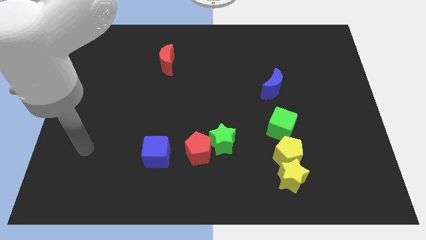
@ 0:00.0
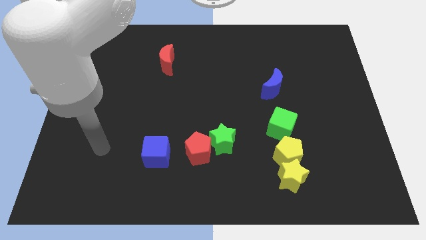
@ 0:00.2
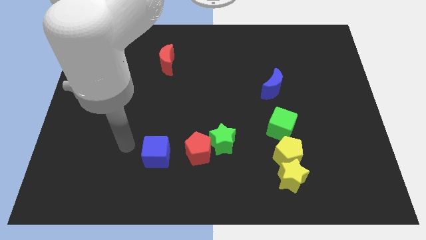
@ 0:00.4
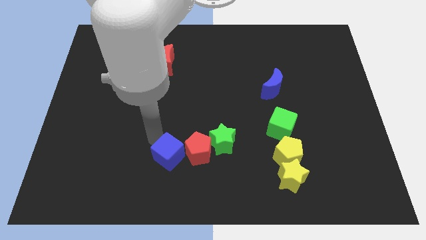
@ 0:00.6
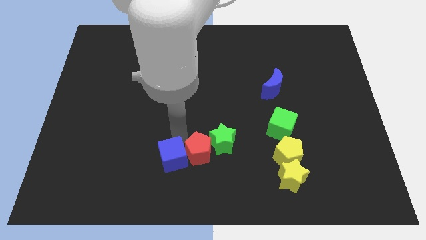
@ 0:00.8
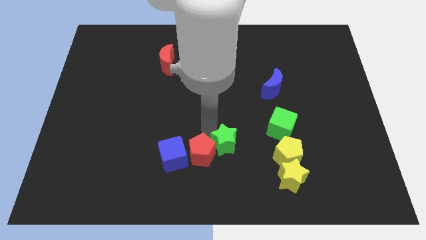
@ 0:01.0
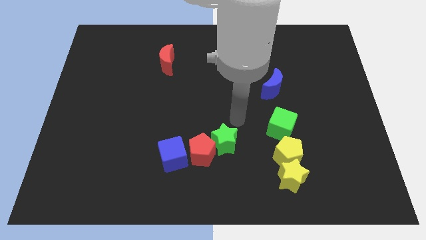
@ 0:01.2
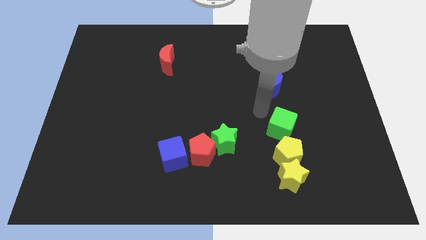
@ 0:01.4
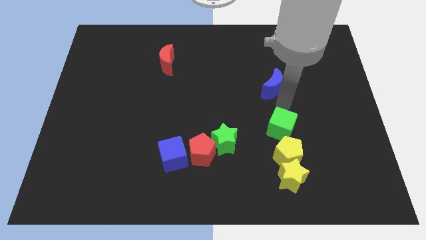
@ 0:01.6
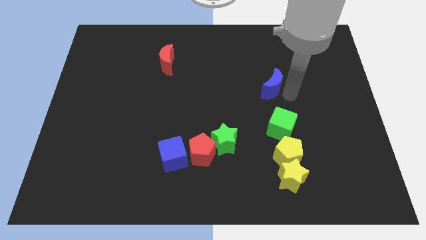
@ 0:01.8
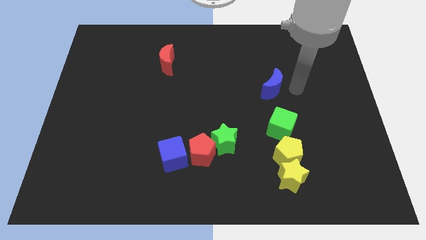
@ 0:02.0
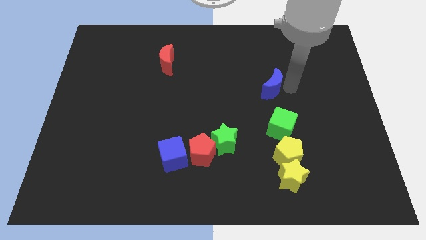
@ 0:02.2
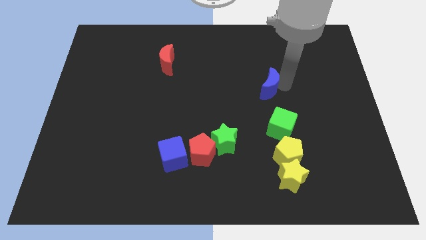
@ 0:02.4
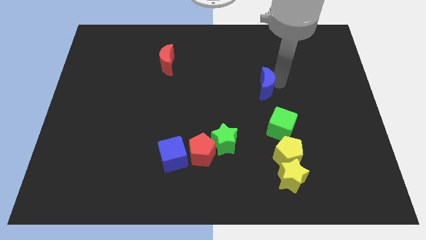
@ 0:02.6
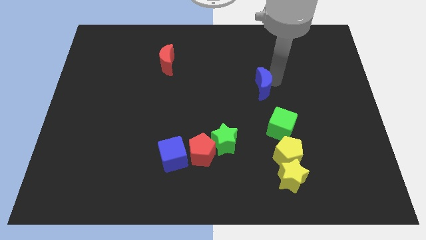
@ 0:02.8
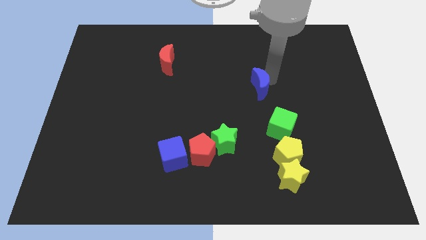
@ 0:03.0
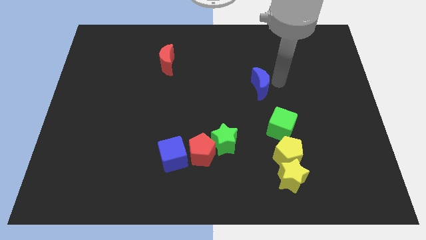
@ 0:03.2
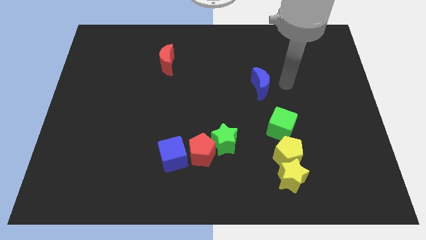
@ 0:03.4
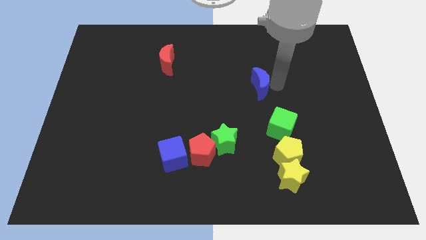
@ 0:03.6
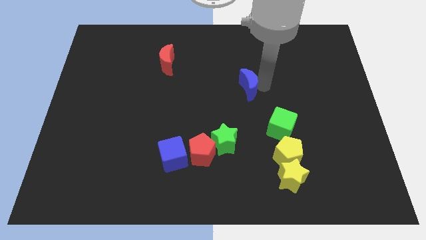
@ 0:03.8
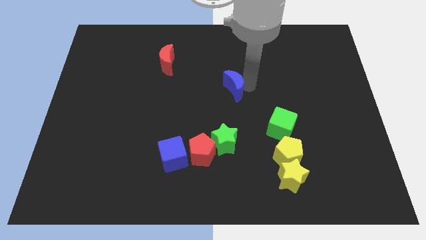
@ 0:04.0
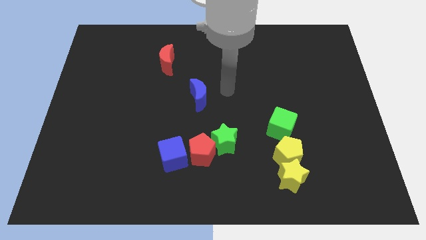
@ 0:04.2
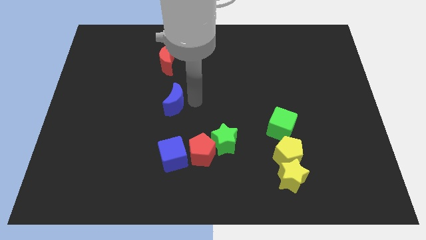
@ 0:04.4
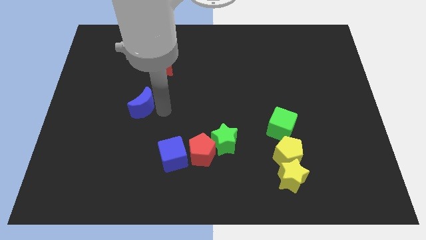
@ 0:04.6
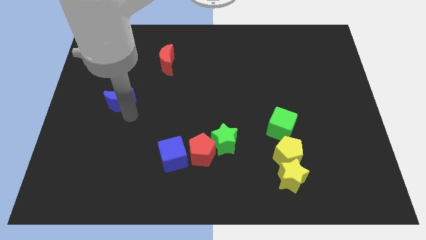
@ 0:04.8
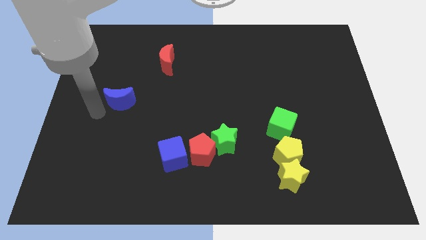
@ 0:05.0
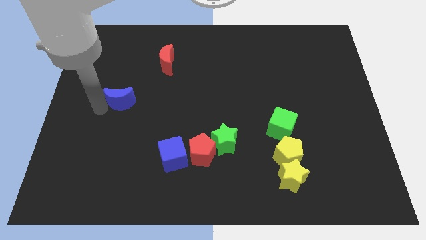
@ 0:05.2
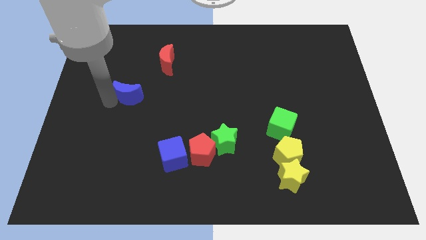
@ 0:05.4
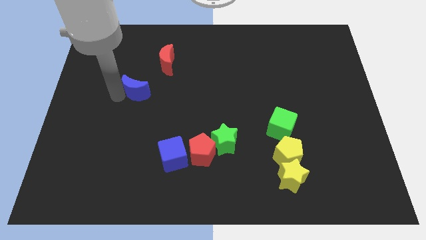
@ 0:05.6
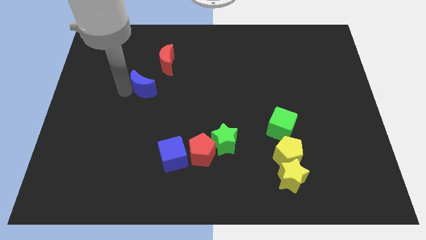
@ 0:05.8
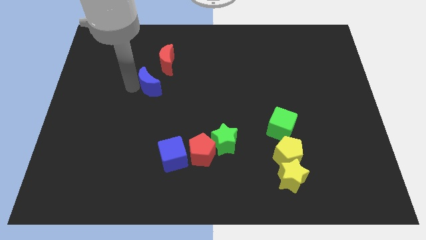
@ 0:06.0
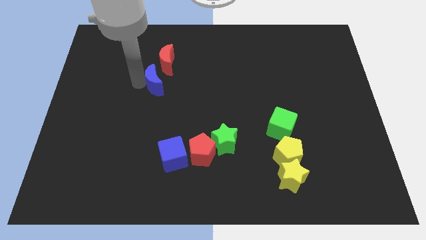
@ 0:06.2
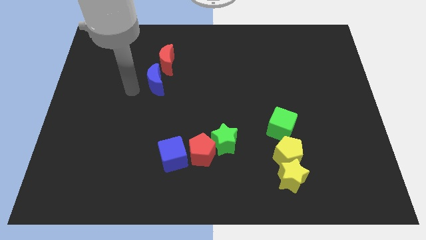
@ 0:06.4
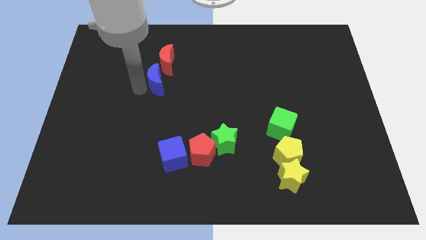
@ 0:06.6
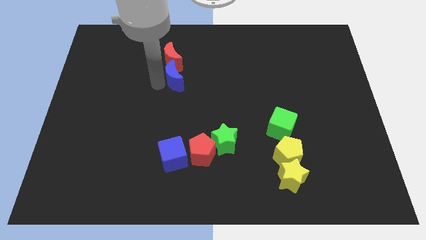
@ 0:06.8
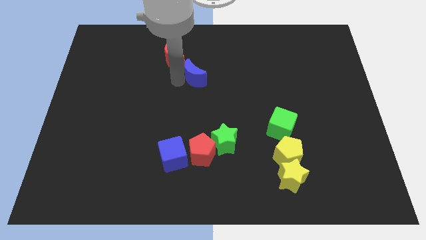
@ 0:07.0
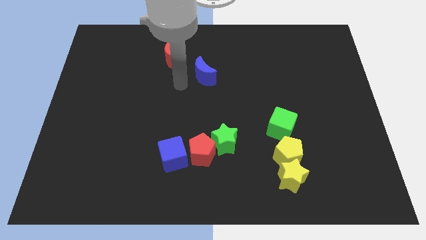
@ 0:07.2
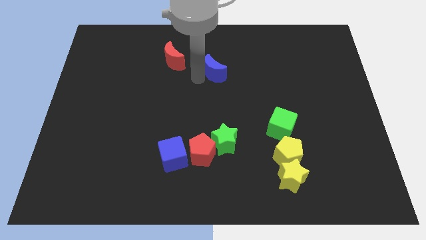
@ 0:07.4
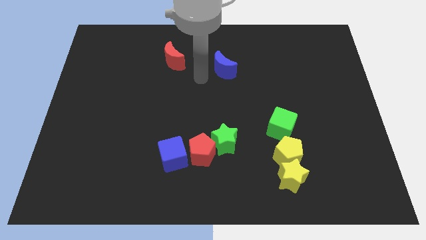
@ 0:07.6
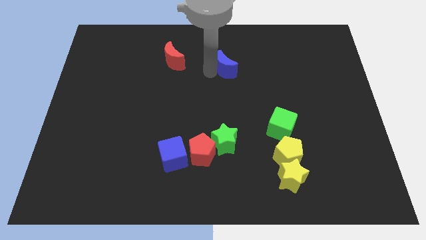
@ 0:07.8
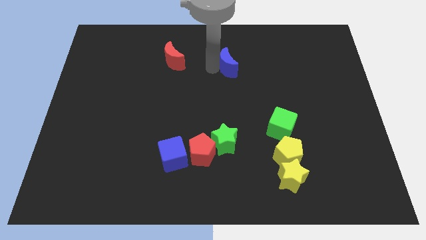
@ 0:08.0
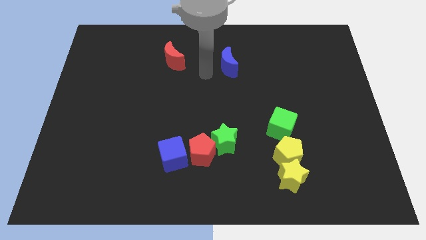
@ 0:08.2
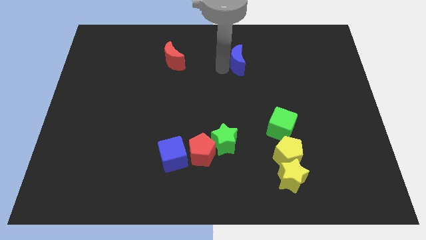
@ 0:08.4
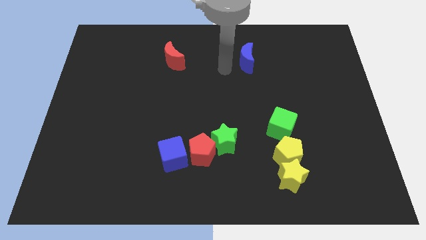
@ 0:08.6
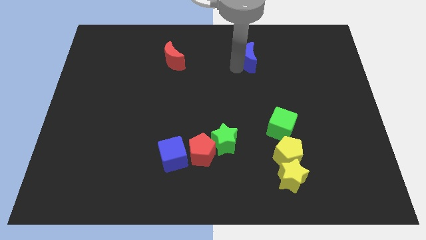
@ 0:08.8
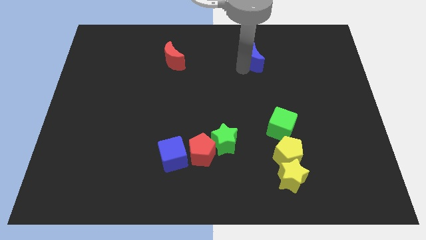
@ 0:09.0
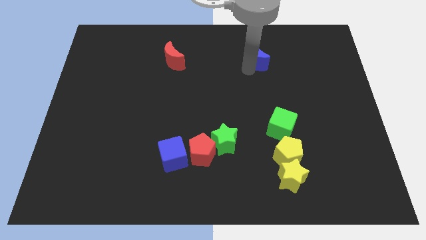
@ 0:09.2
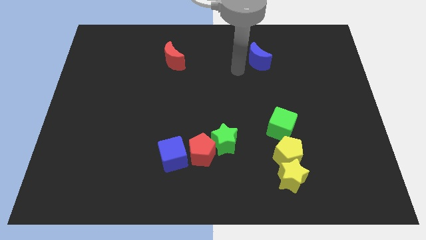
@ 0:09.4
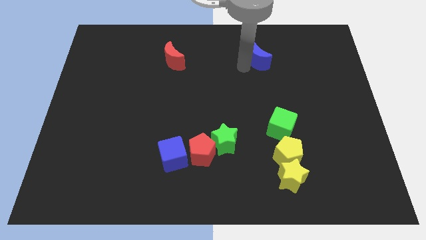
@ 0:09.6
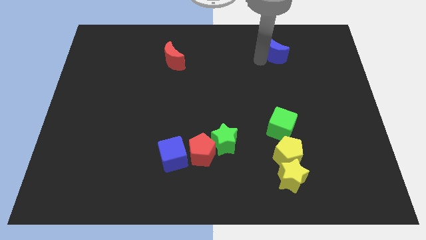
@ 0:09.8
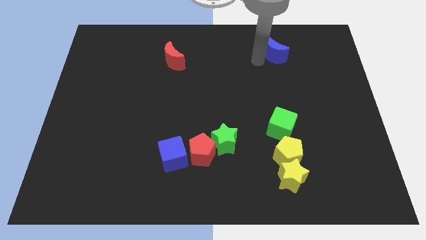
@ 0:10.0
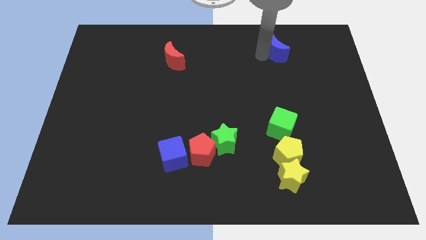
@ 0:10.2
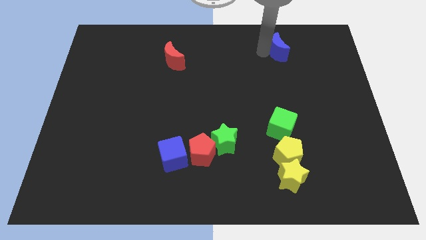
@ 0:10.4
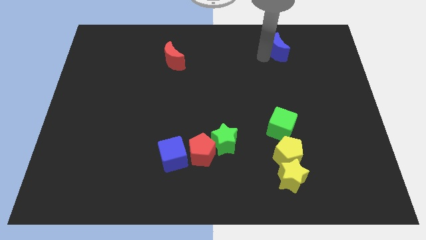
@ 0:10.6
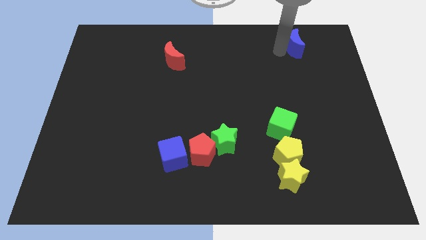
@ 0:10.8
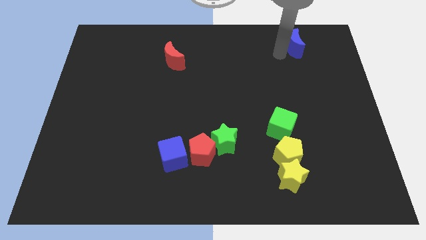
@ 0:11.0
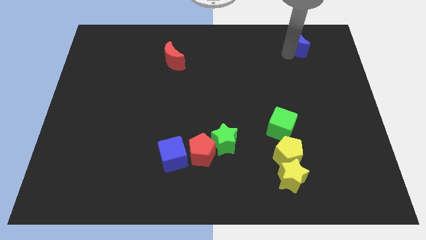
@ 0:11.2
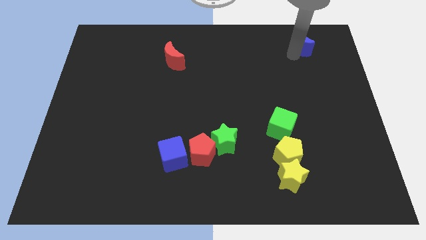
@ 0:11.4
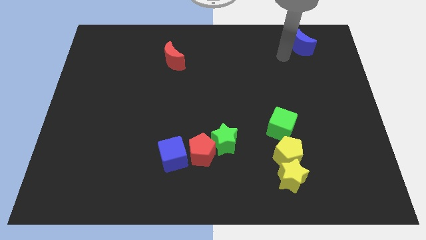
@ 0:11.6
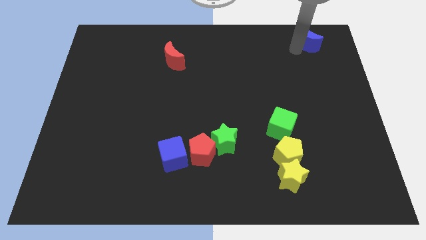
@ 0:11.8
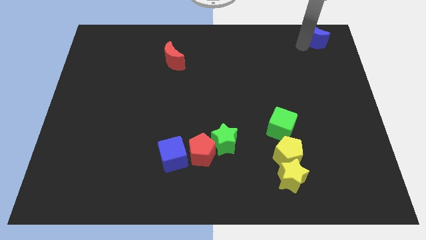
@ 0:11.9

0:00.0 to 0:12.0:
put the blue moon to the top right corner

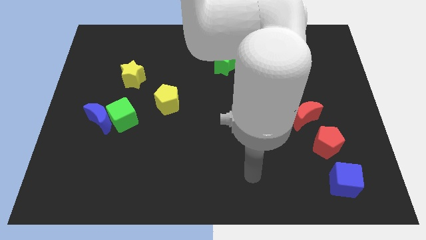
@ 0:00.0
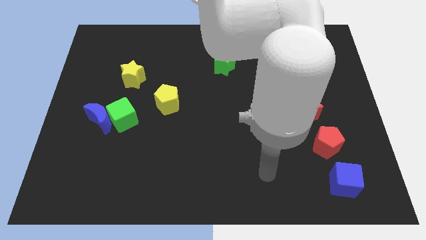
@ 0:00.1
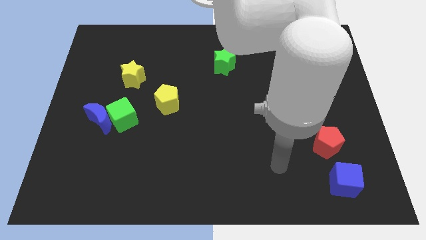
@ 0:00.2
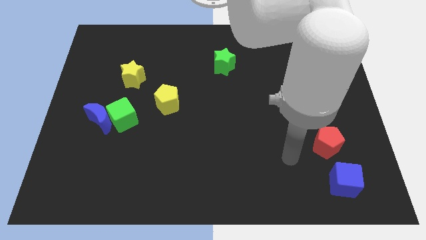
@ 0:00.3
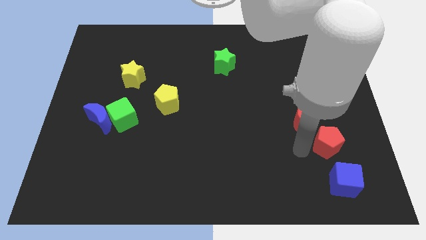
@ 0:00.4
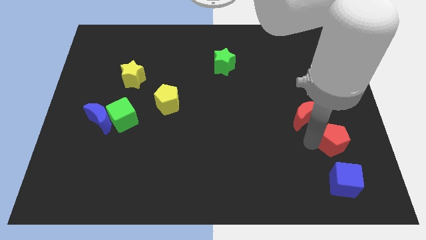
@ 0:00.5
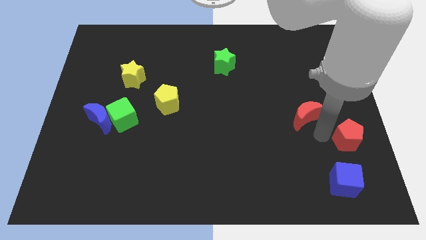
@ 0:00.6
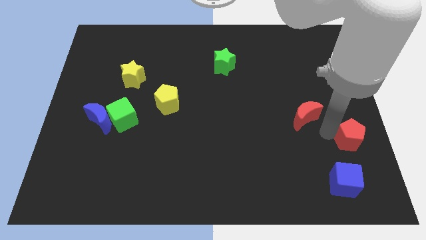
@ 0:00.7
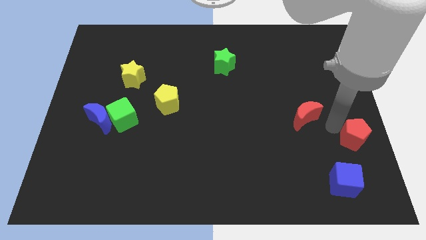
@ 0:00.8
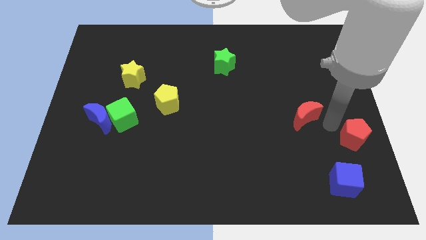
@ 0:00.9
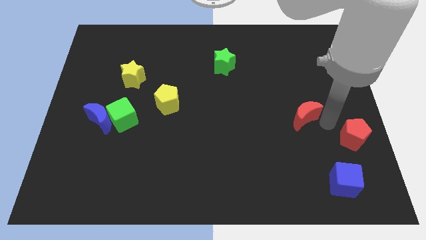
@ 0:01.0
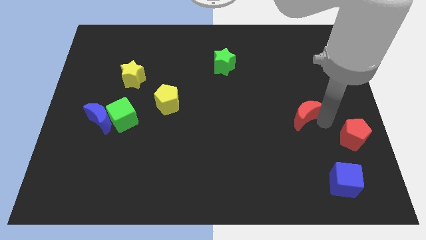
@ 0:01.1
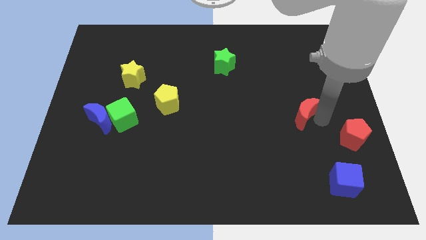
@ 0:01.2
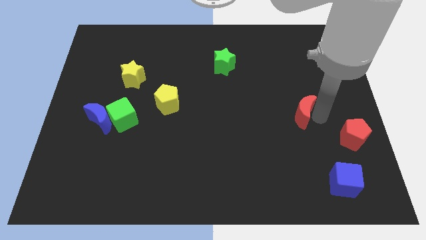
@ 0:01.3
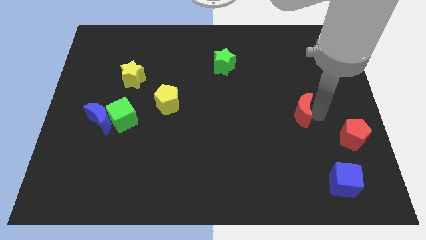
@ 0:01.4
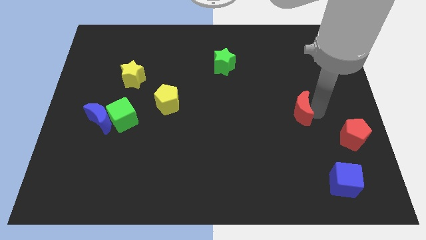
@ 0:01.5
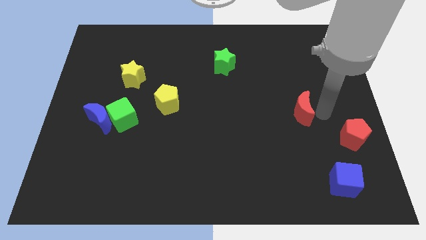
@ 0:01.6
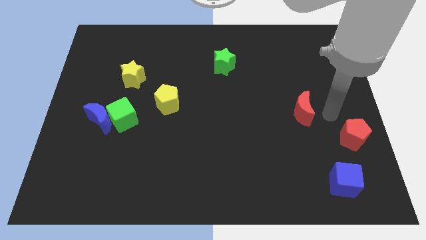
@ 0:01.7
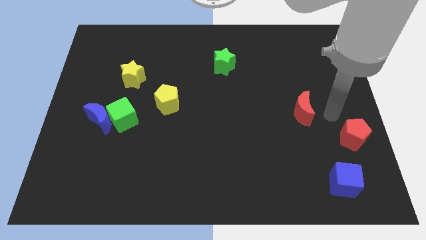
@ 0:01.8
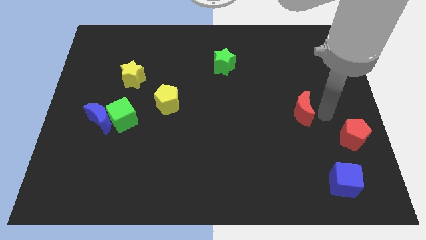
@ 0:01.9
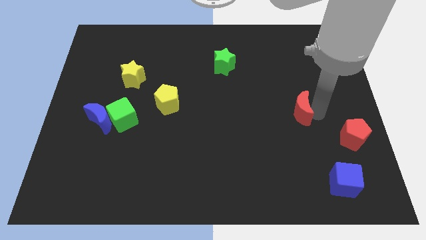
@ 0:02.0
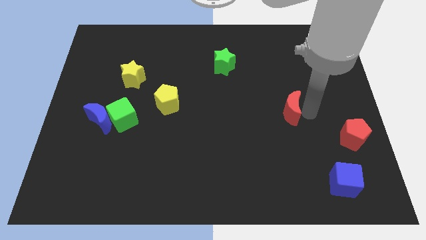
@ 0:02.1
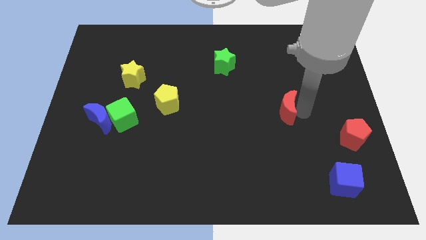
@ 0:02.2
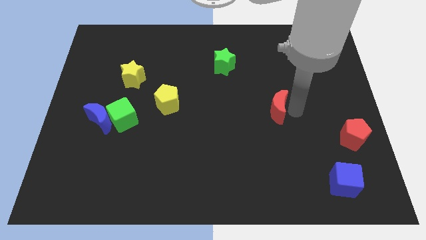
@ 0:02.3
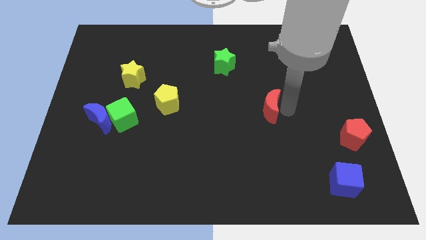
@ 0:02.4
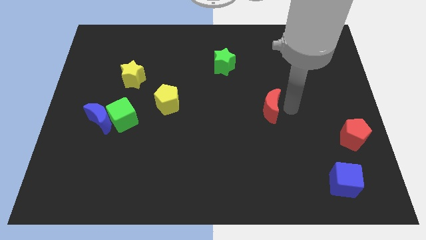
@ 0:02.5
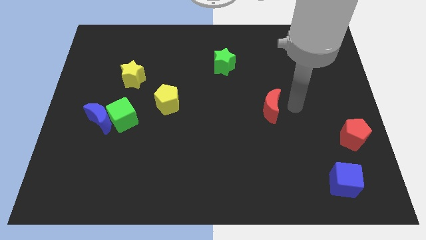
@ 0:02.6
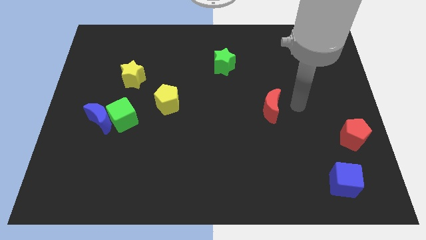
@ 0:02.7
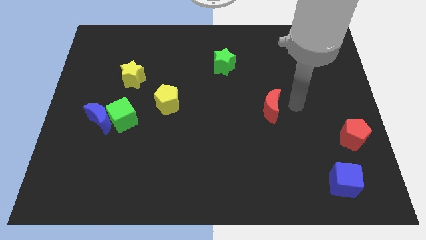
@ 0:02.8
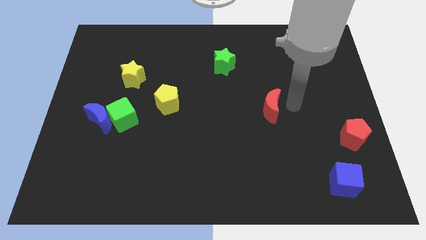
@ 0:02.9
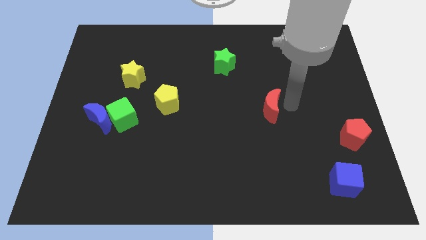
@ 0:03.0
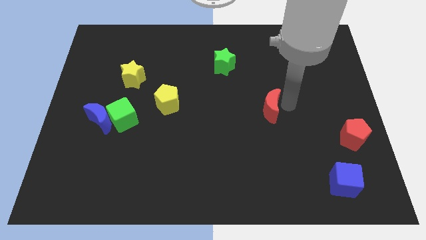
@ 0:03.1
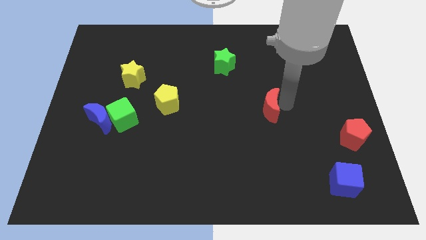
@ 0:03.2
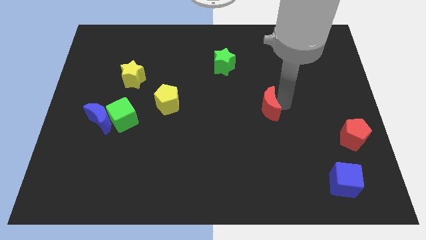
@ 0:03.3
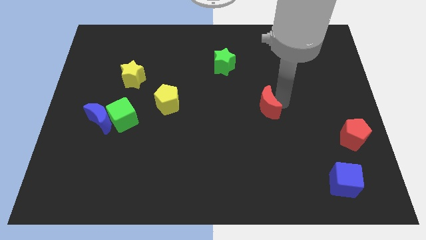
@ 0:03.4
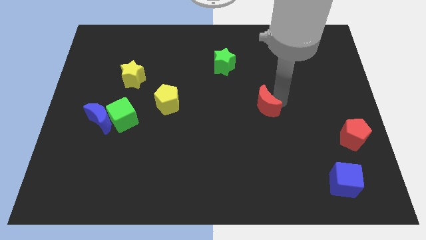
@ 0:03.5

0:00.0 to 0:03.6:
push the red moon to the middle
